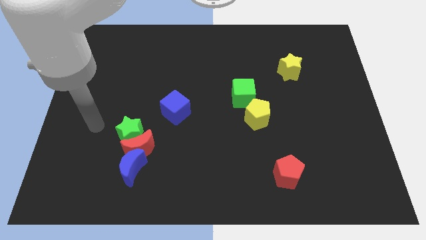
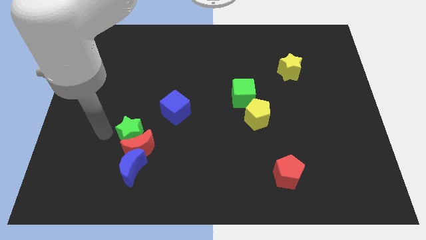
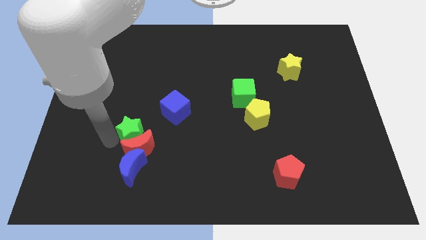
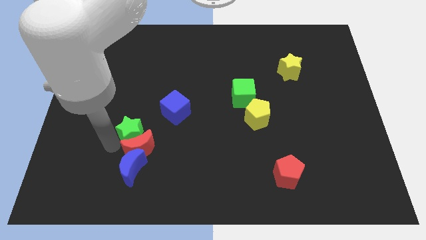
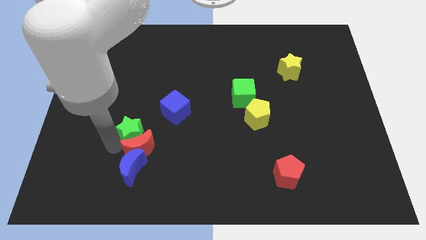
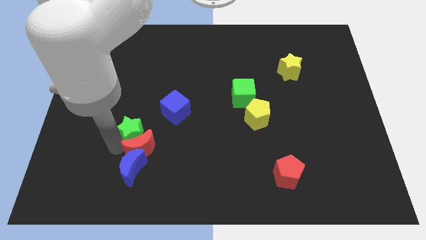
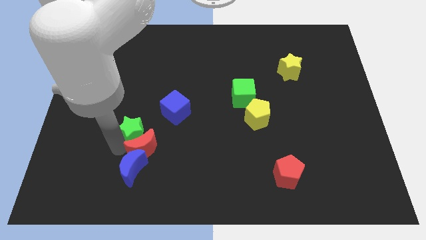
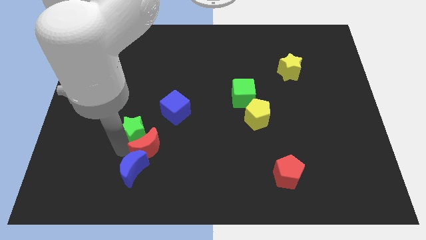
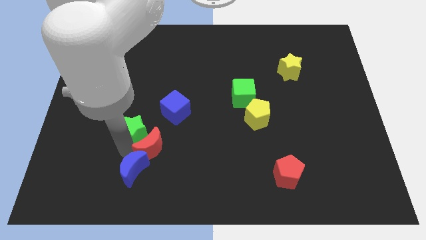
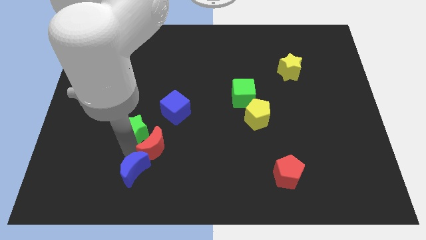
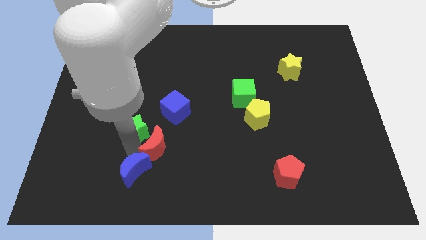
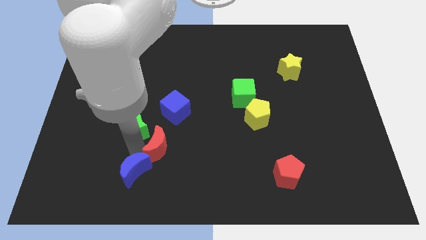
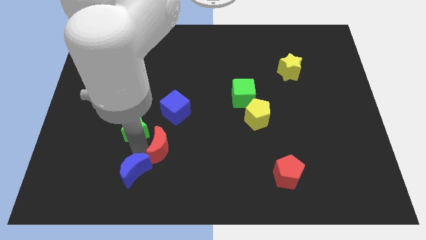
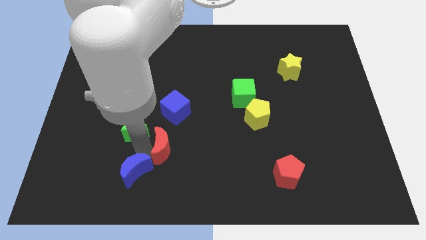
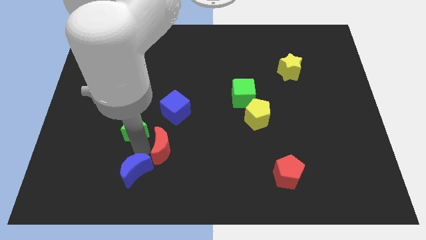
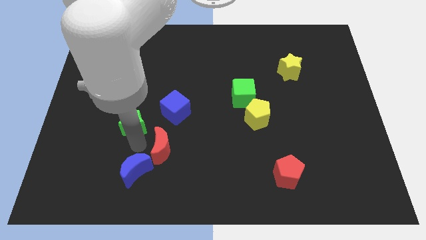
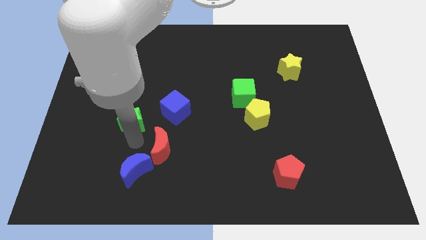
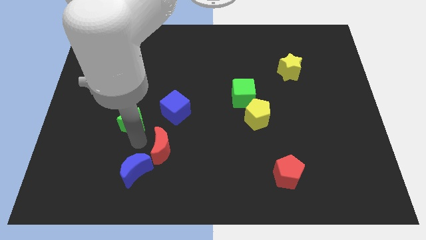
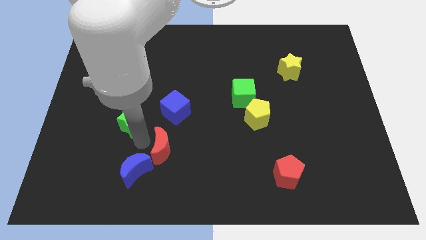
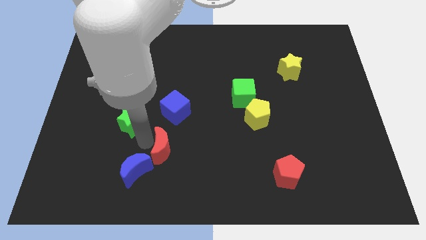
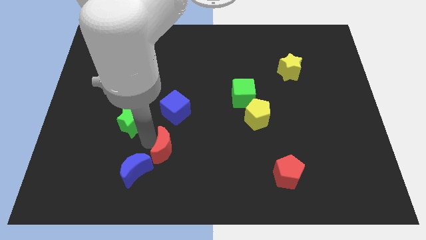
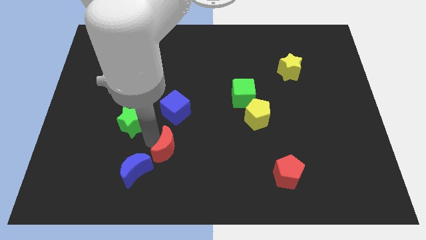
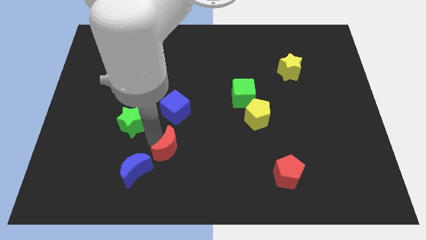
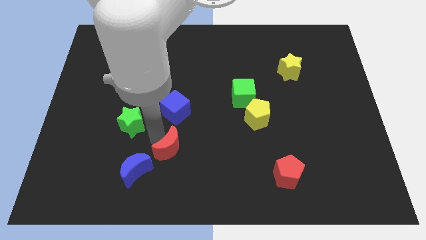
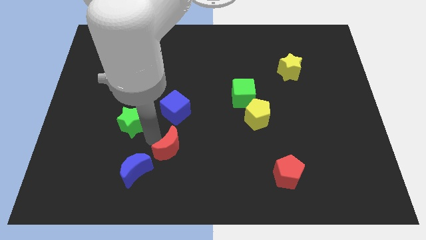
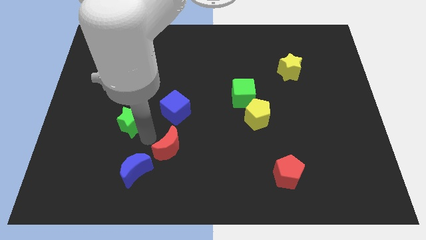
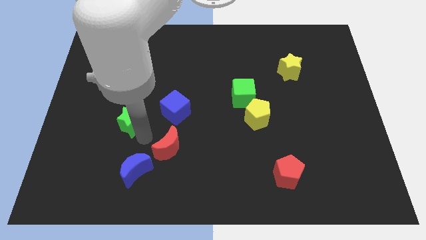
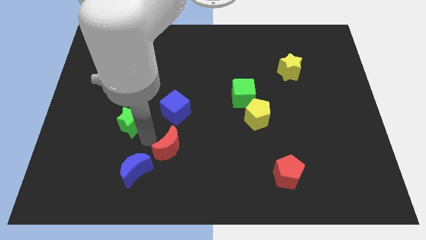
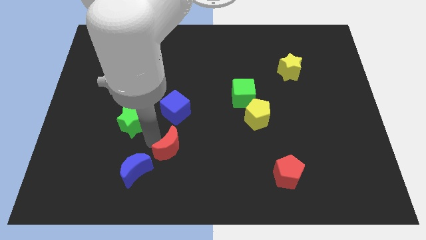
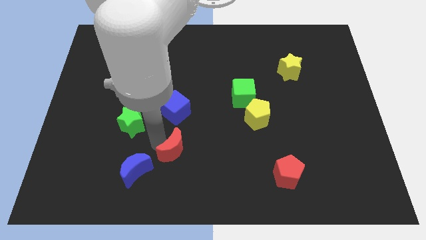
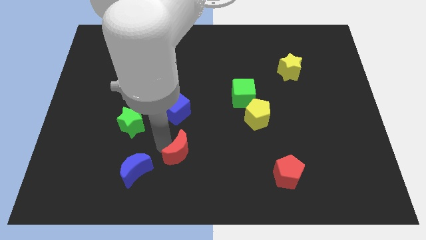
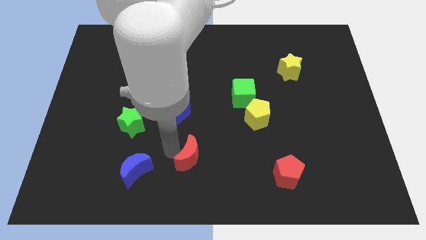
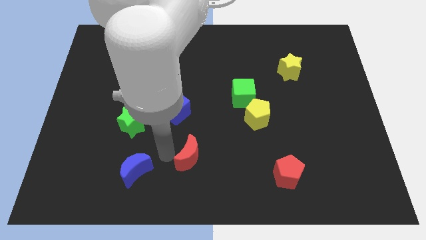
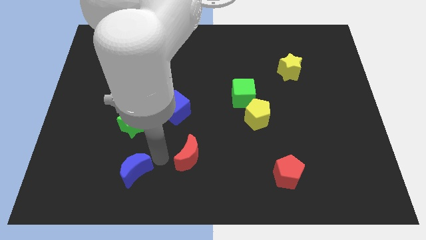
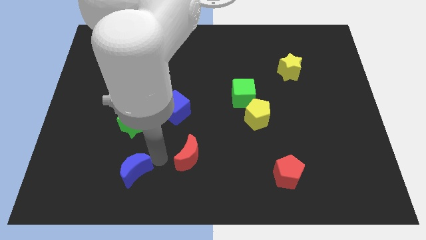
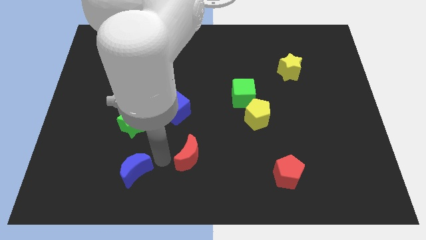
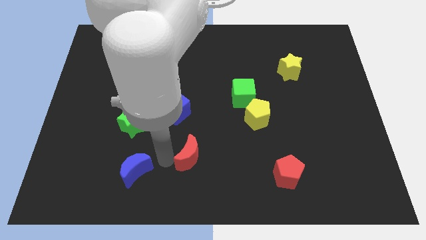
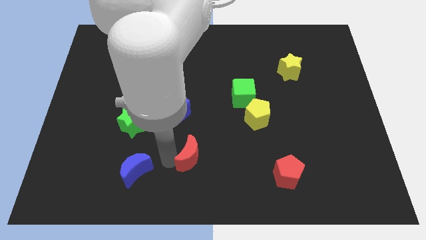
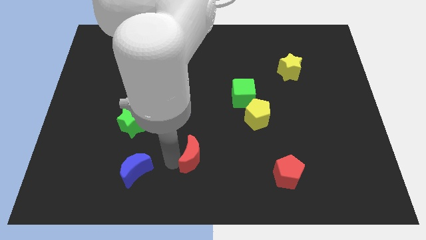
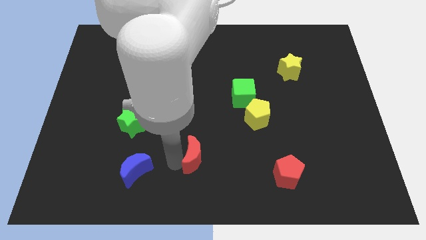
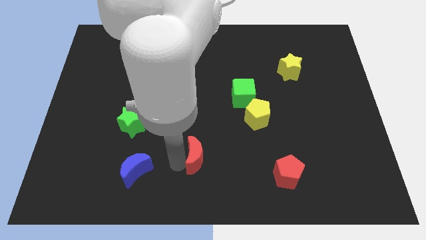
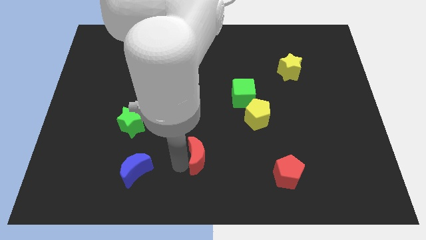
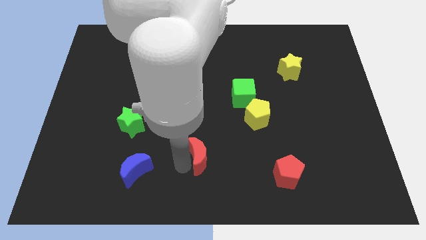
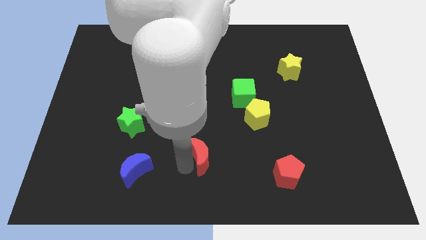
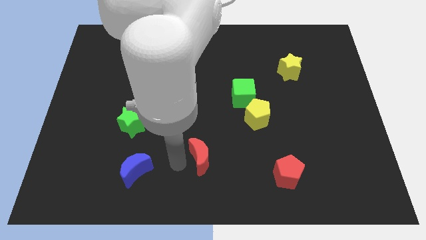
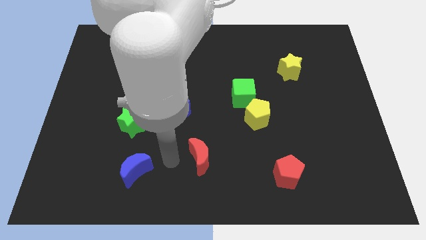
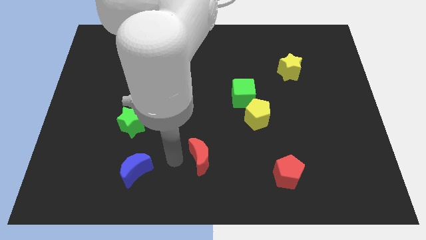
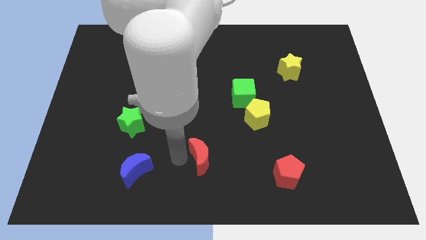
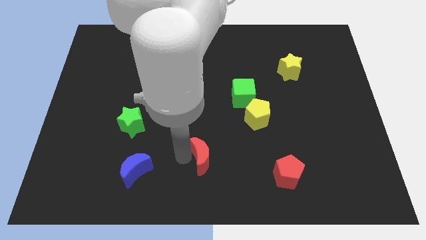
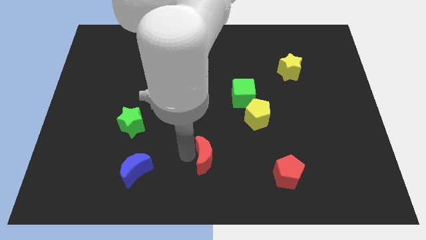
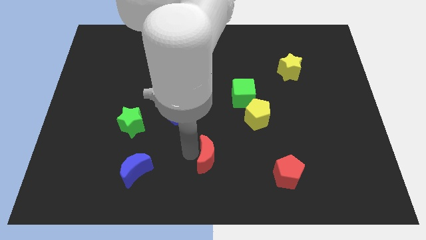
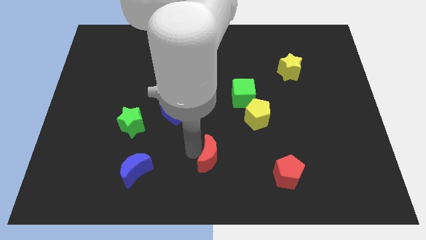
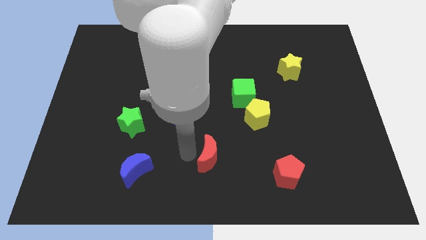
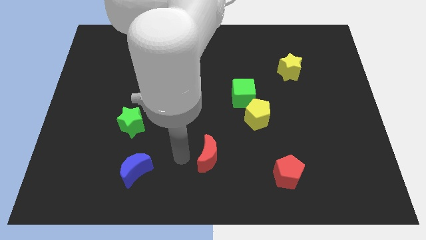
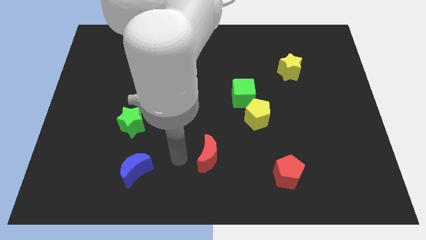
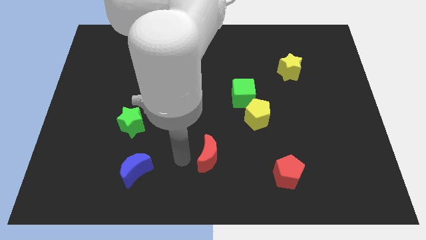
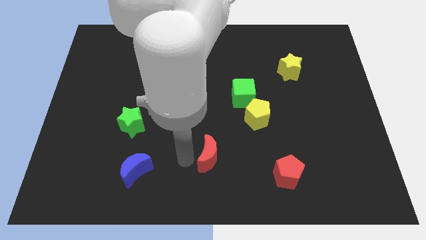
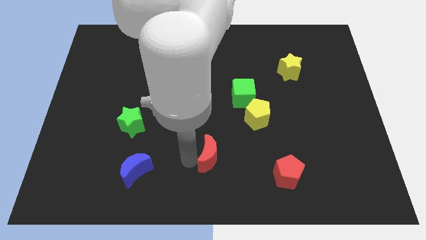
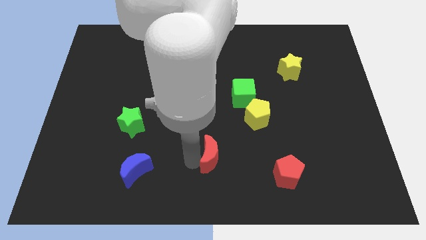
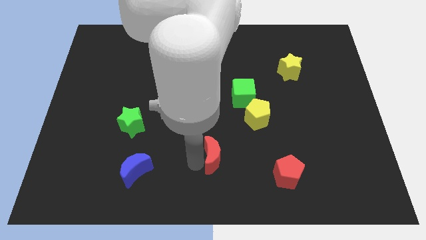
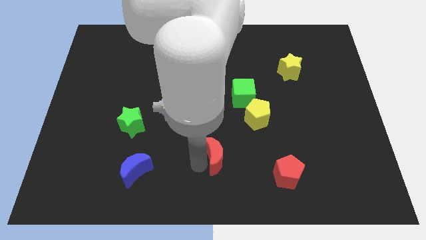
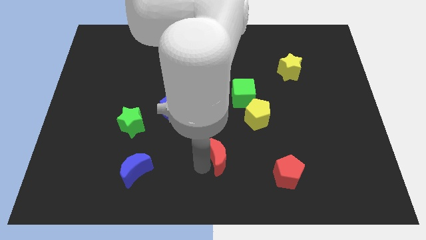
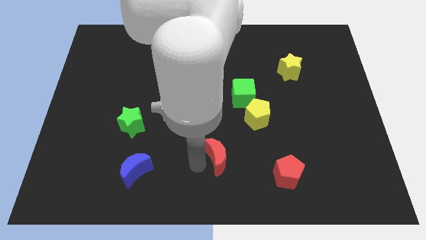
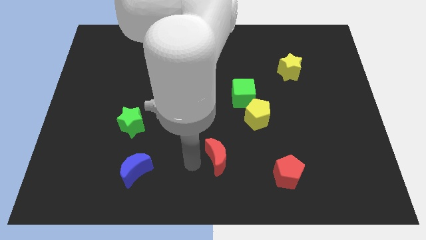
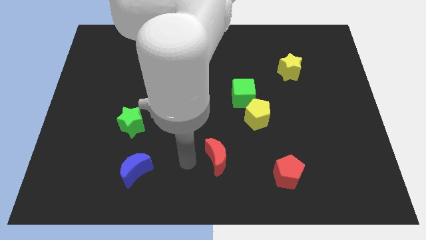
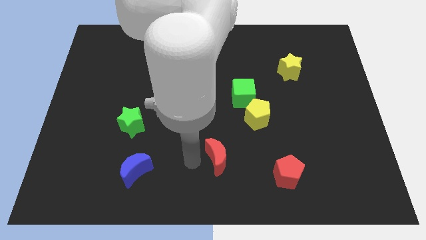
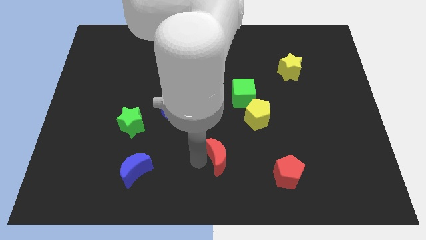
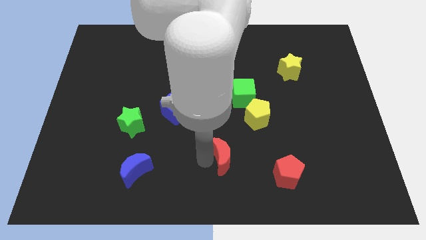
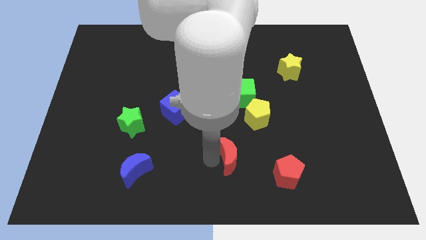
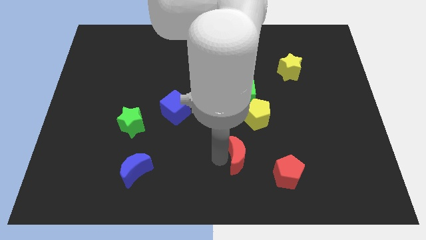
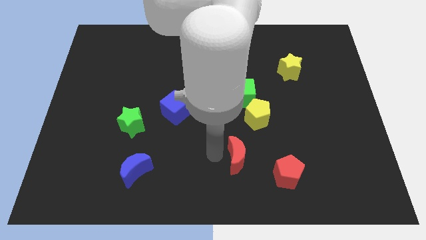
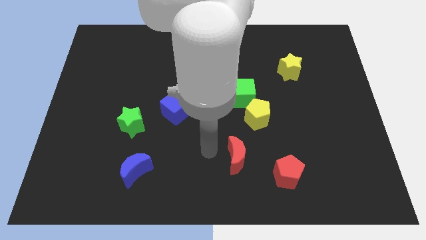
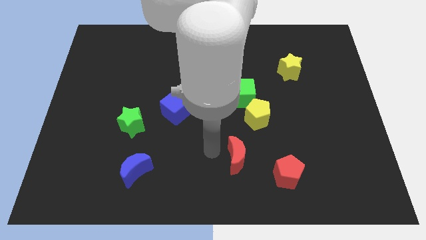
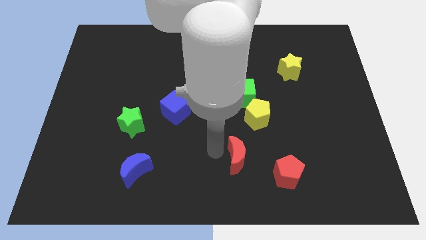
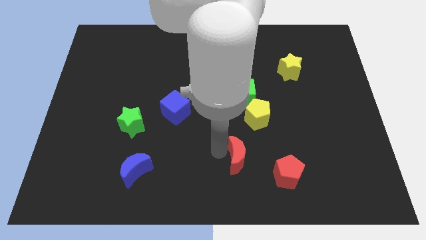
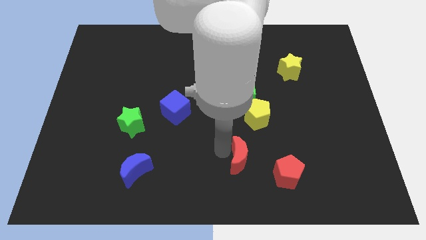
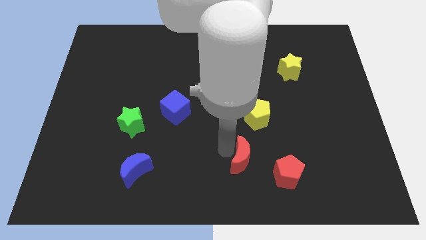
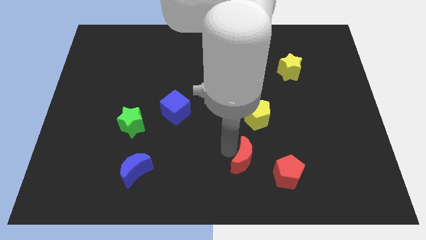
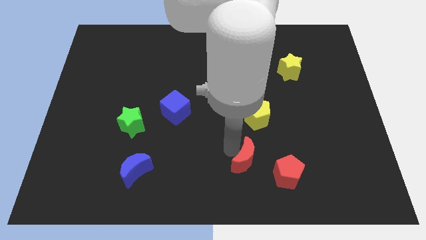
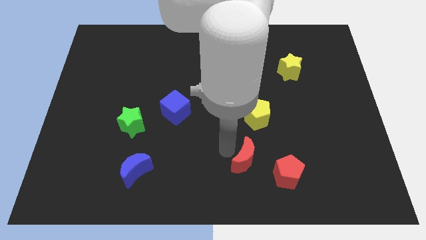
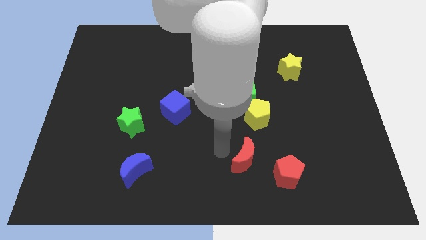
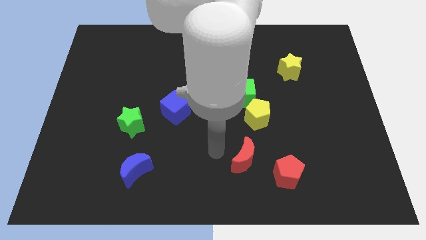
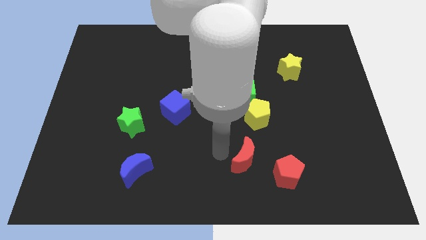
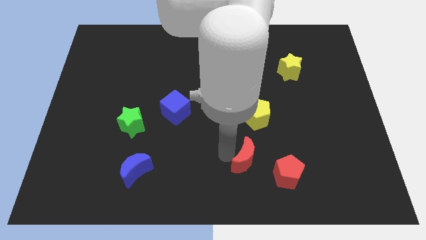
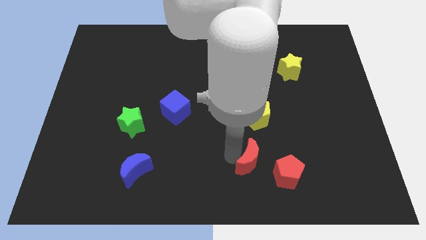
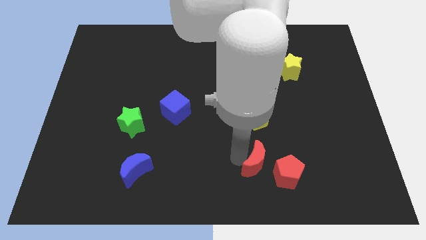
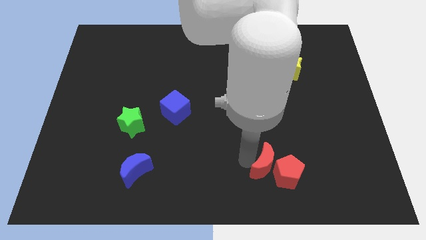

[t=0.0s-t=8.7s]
push the red moon close to the red pentagon
